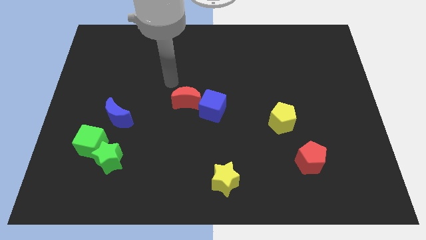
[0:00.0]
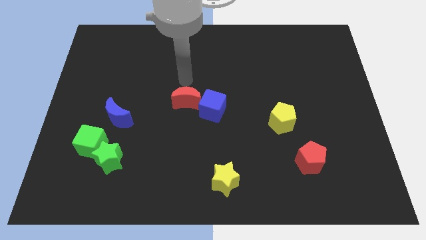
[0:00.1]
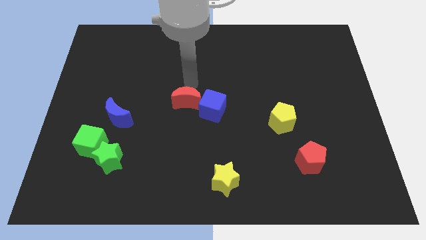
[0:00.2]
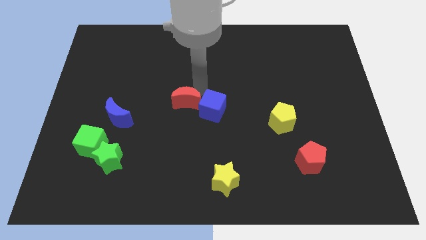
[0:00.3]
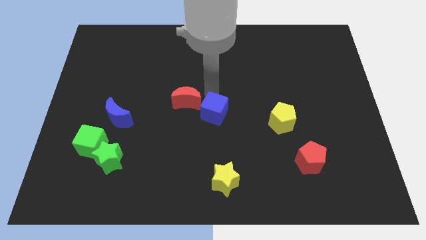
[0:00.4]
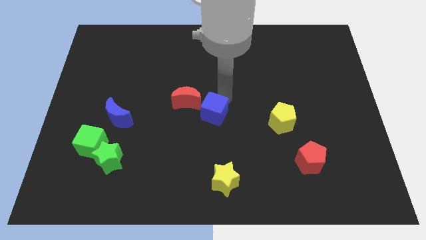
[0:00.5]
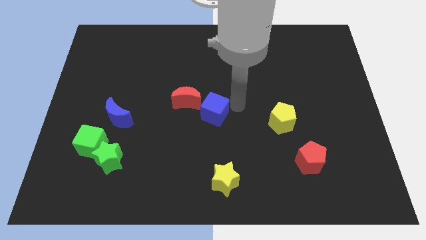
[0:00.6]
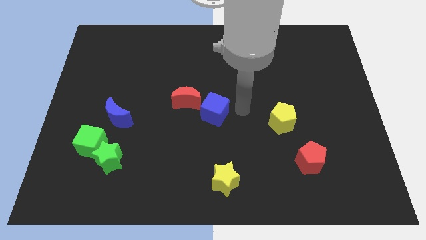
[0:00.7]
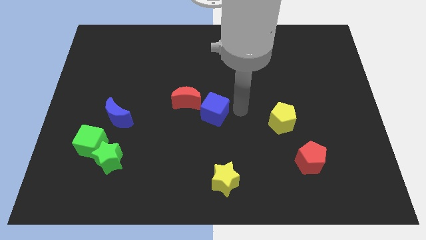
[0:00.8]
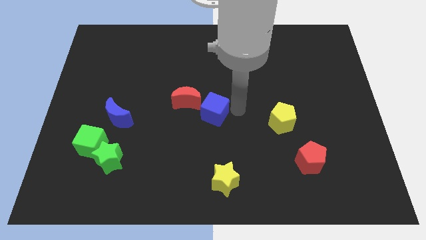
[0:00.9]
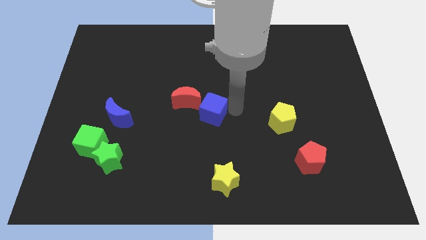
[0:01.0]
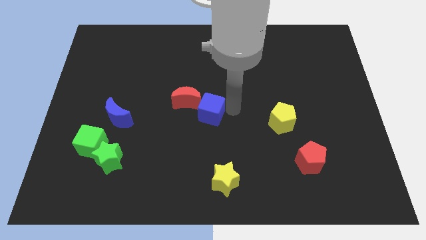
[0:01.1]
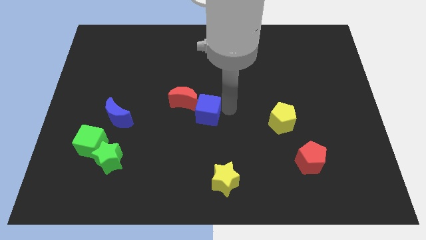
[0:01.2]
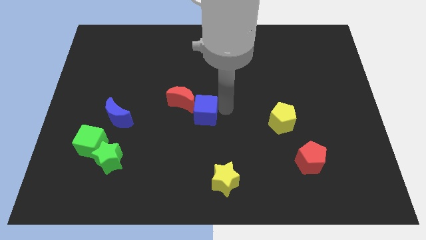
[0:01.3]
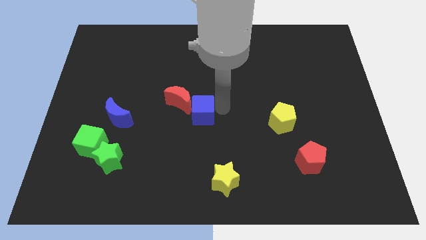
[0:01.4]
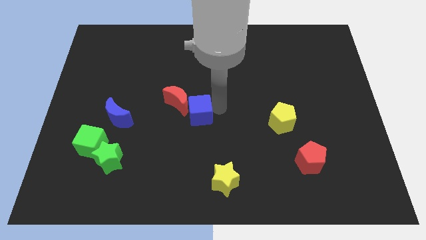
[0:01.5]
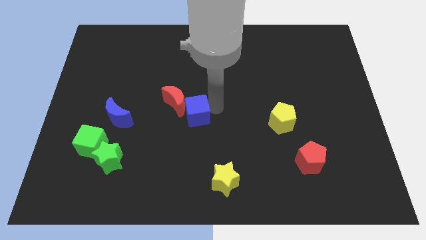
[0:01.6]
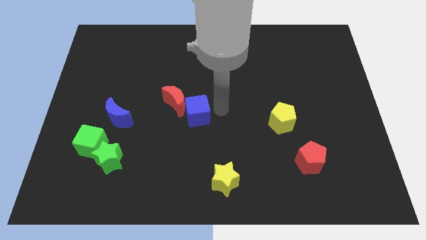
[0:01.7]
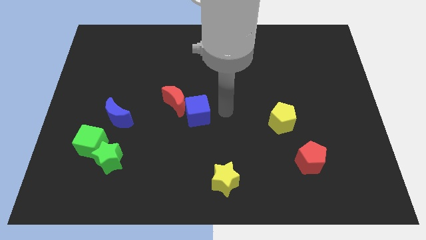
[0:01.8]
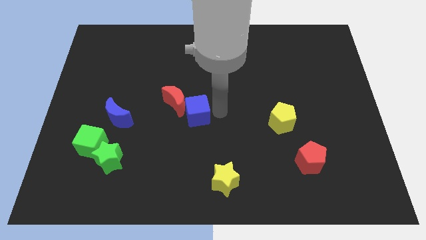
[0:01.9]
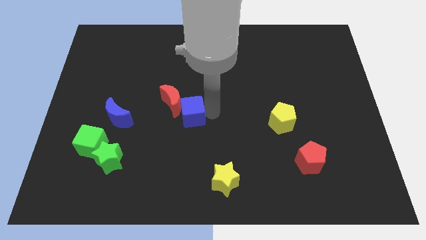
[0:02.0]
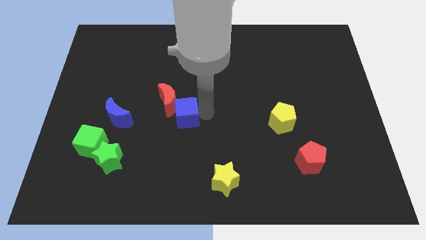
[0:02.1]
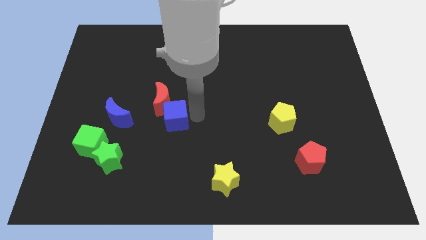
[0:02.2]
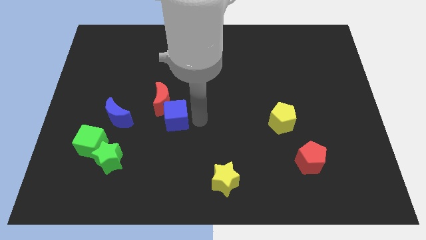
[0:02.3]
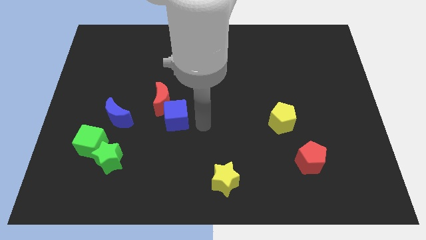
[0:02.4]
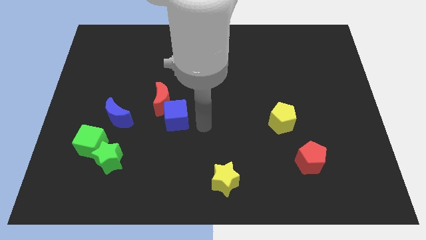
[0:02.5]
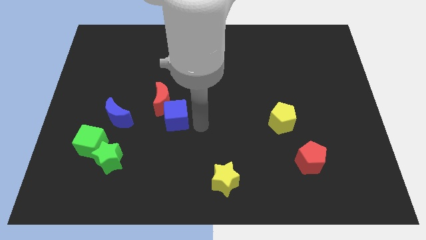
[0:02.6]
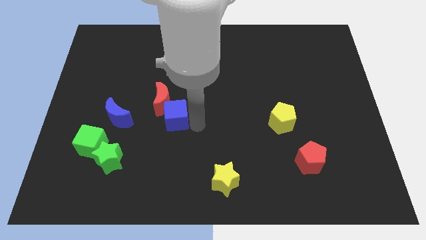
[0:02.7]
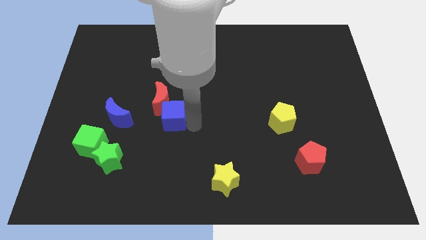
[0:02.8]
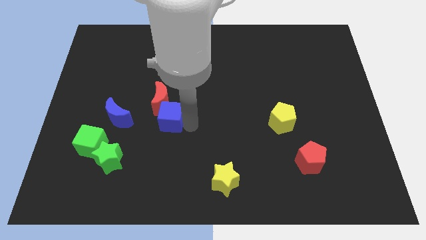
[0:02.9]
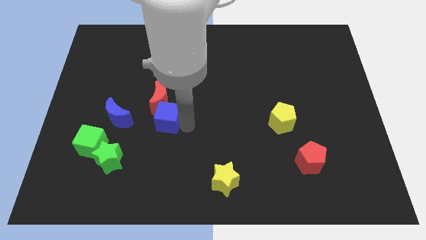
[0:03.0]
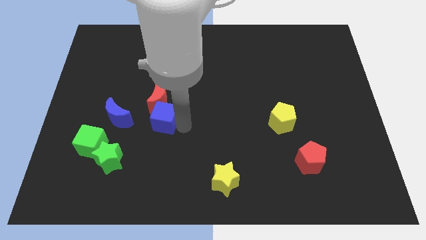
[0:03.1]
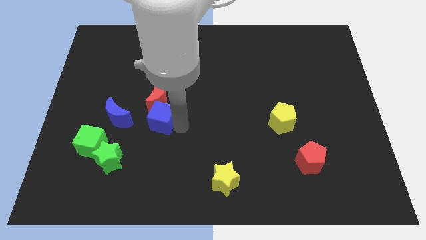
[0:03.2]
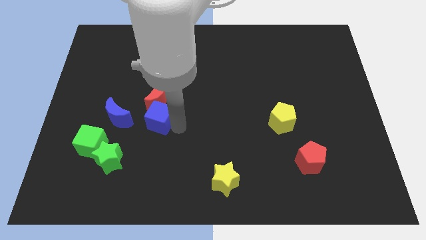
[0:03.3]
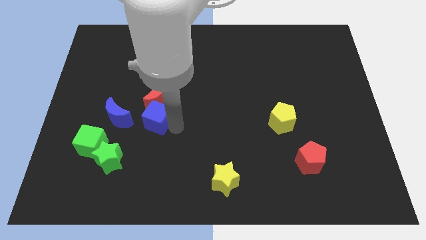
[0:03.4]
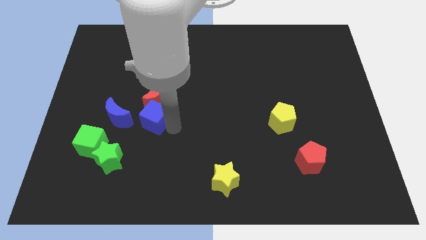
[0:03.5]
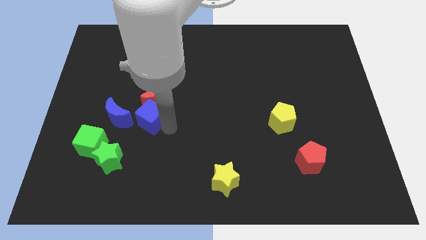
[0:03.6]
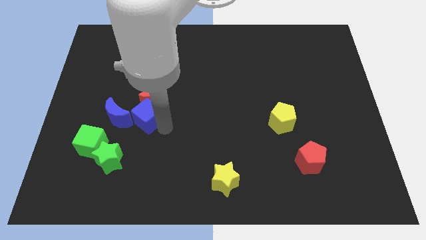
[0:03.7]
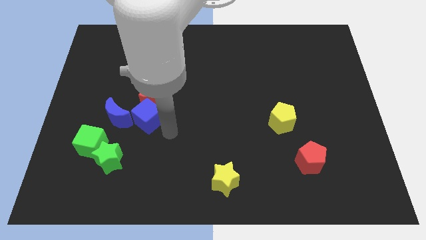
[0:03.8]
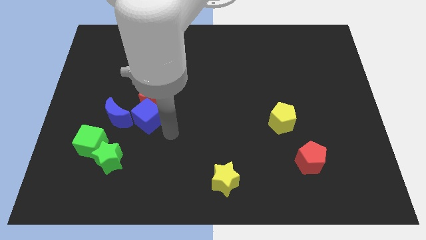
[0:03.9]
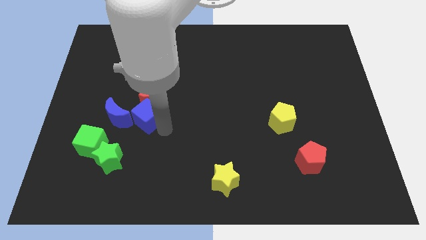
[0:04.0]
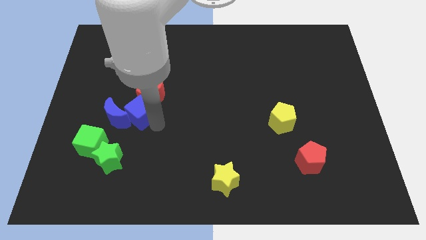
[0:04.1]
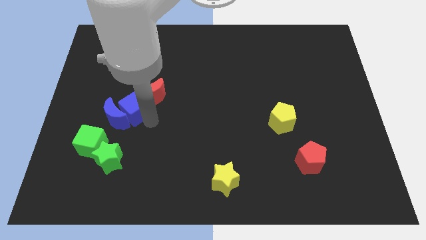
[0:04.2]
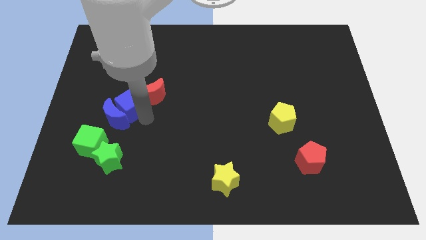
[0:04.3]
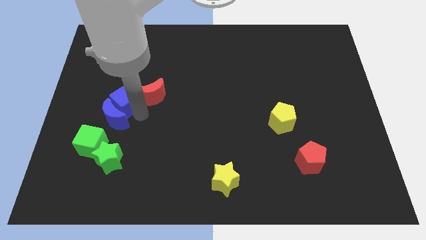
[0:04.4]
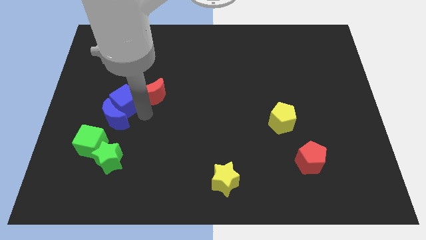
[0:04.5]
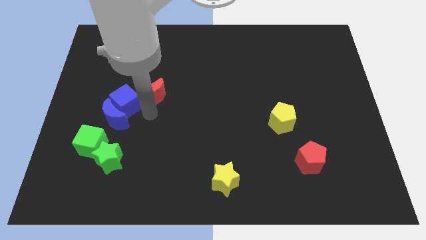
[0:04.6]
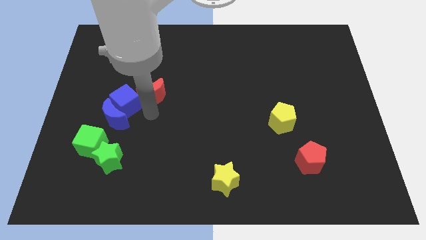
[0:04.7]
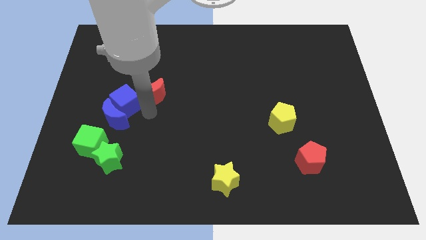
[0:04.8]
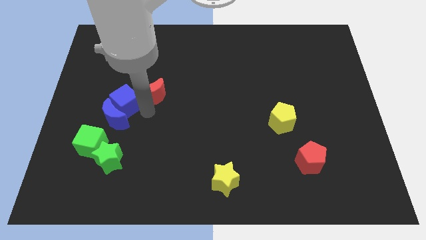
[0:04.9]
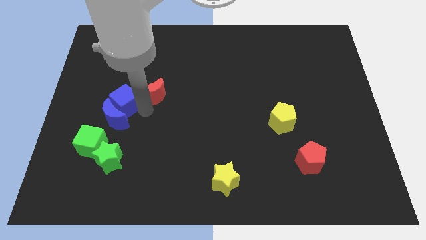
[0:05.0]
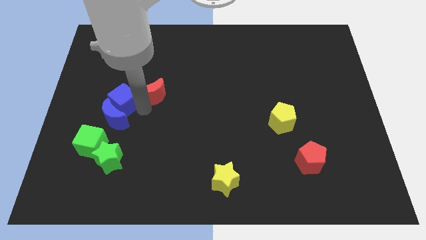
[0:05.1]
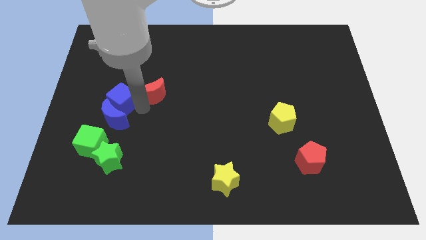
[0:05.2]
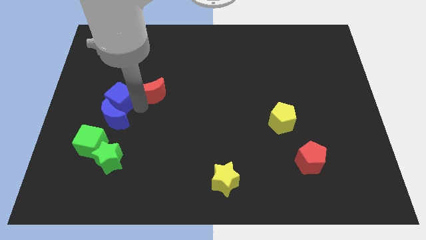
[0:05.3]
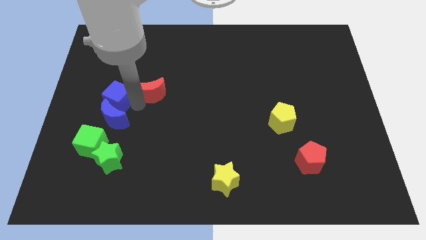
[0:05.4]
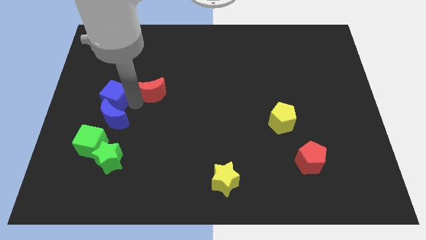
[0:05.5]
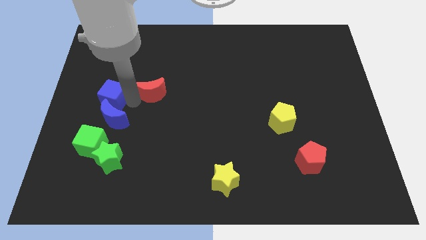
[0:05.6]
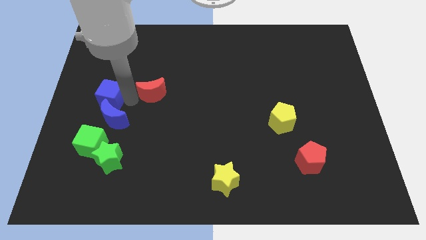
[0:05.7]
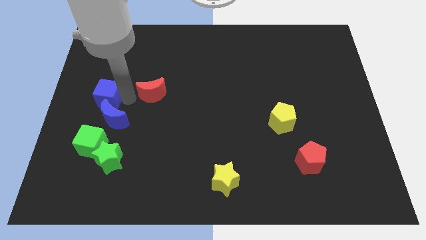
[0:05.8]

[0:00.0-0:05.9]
push the blue cube to the left side
